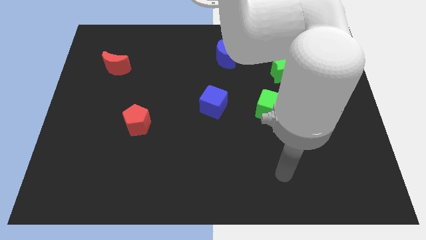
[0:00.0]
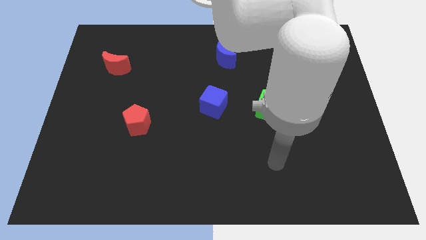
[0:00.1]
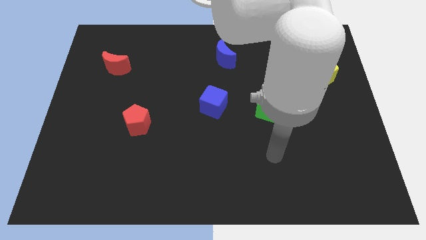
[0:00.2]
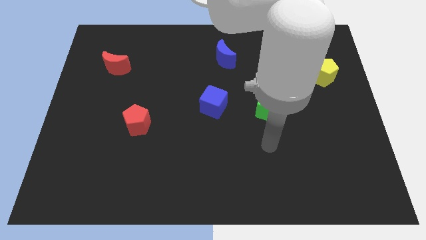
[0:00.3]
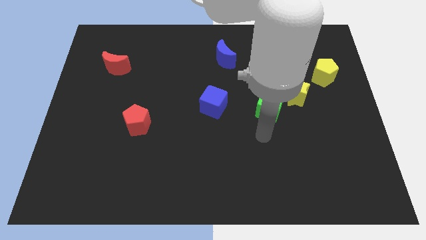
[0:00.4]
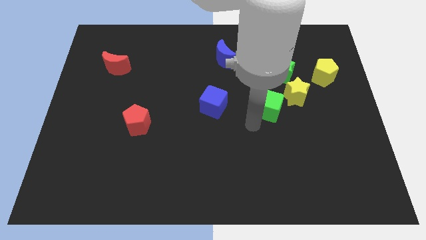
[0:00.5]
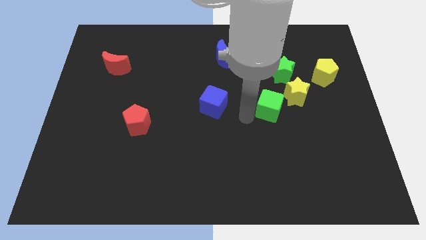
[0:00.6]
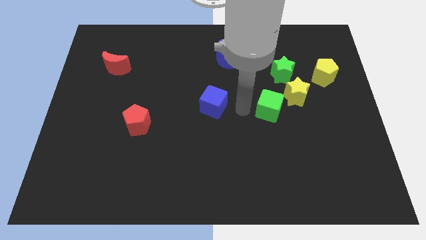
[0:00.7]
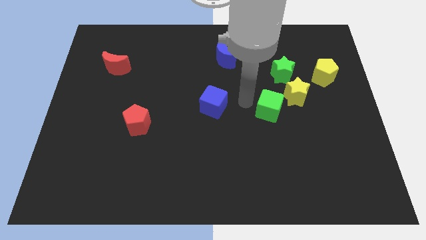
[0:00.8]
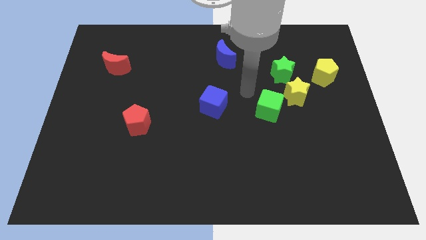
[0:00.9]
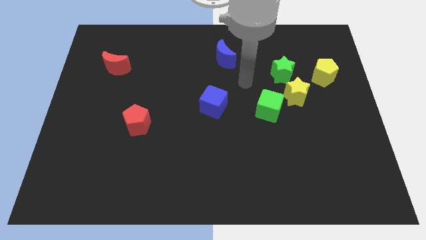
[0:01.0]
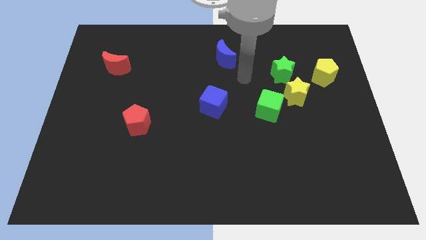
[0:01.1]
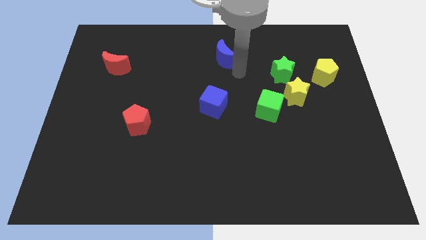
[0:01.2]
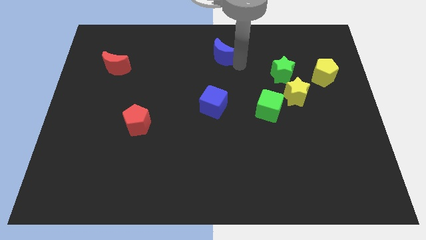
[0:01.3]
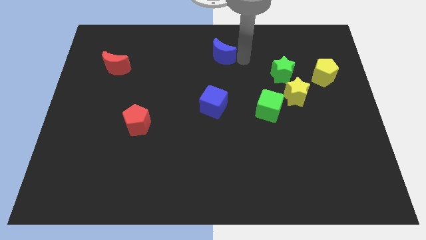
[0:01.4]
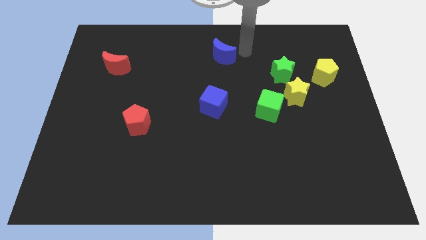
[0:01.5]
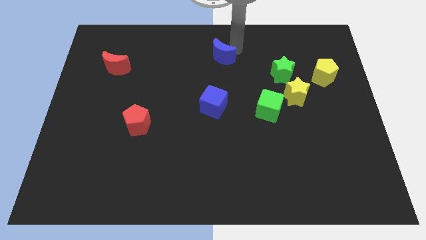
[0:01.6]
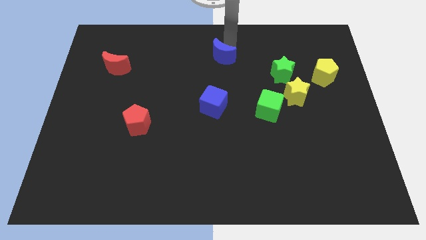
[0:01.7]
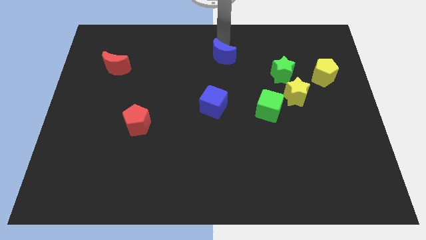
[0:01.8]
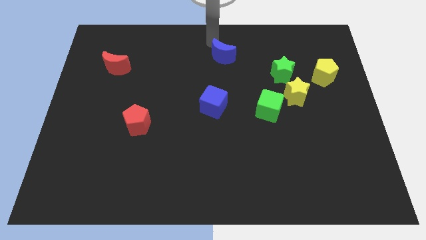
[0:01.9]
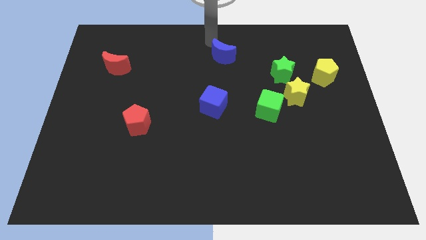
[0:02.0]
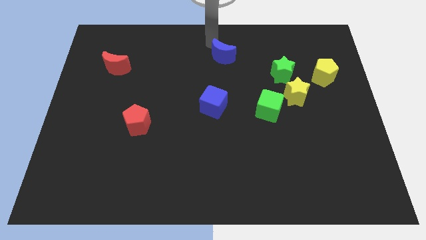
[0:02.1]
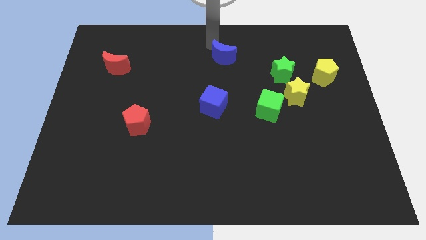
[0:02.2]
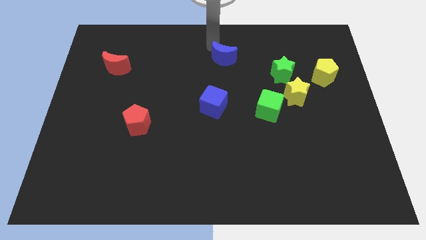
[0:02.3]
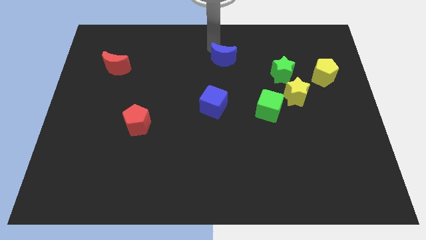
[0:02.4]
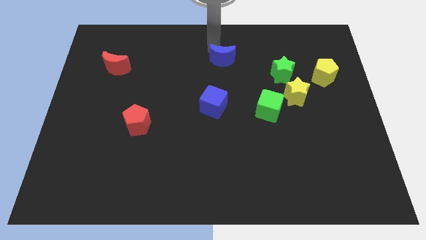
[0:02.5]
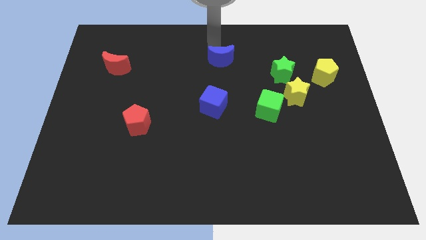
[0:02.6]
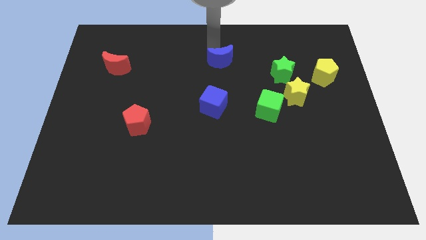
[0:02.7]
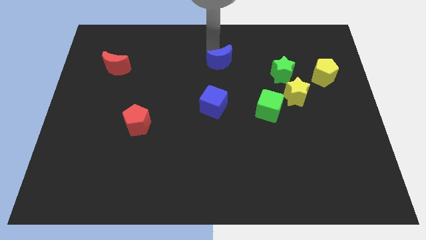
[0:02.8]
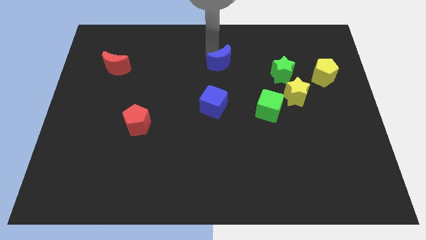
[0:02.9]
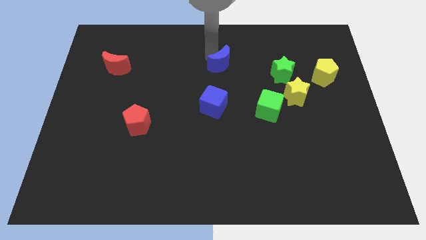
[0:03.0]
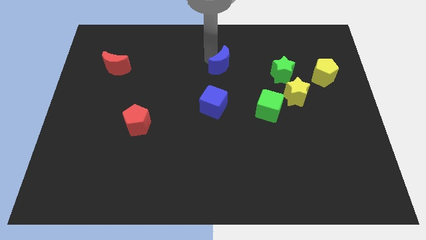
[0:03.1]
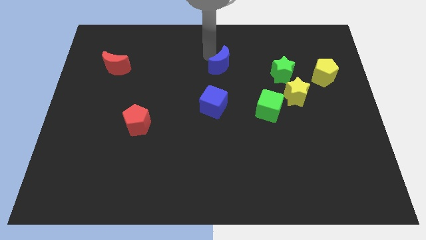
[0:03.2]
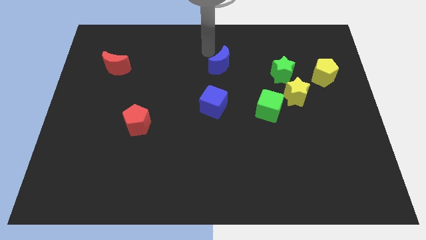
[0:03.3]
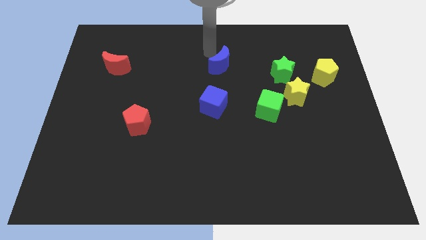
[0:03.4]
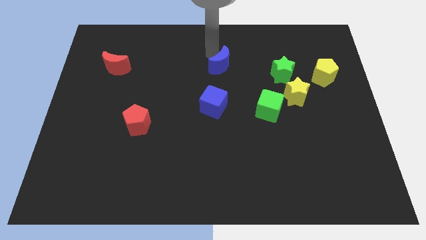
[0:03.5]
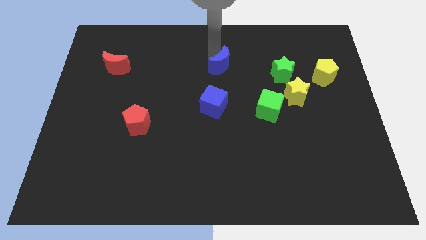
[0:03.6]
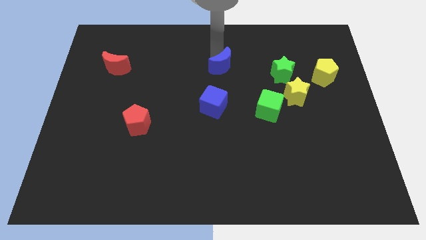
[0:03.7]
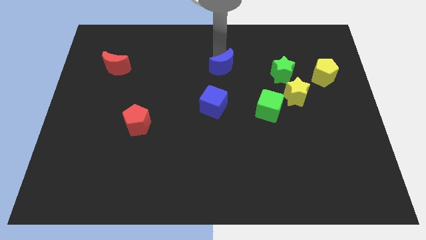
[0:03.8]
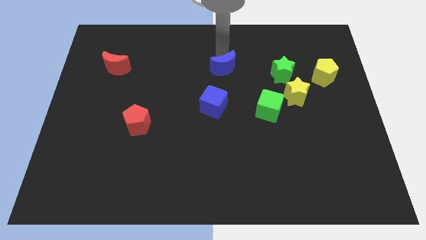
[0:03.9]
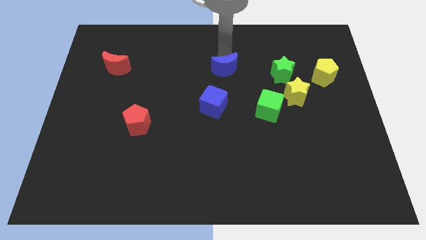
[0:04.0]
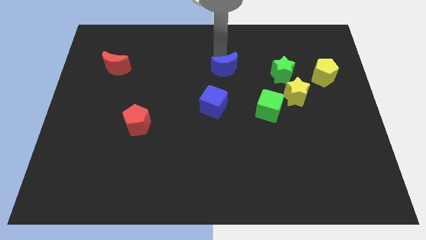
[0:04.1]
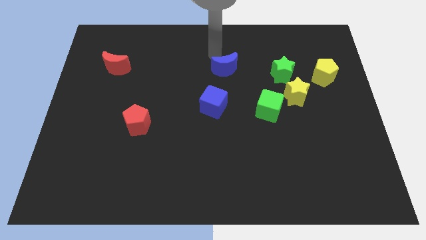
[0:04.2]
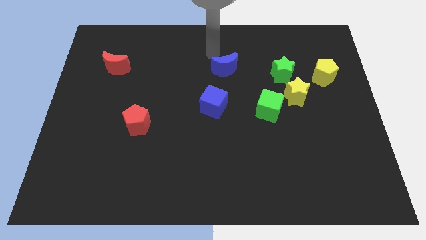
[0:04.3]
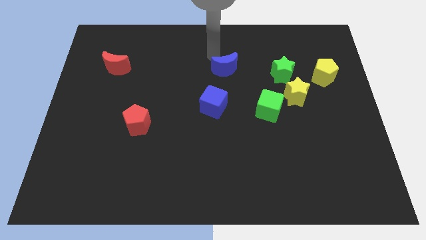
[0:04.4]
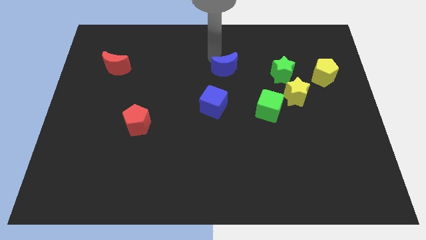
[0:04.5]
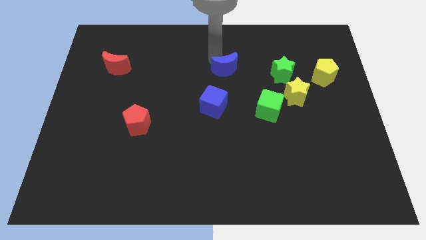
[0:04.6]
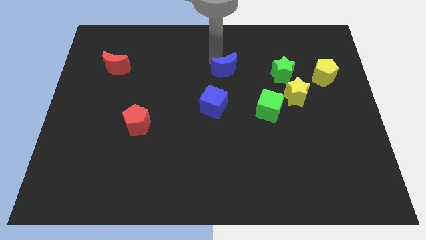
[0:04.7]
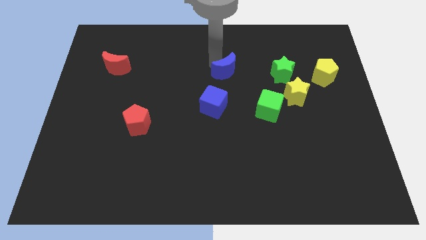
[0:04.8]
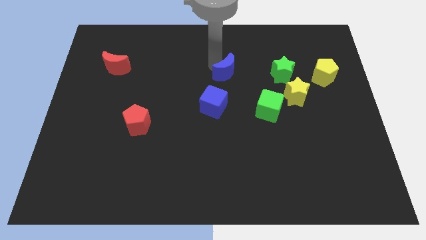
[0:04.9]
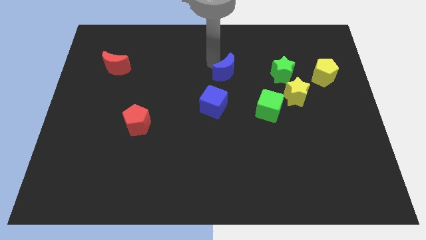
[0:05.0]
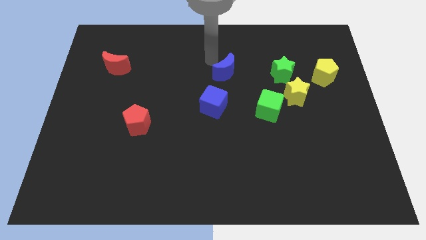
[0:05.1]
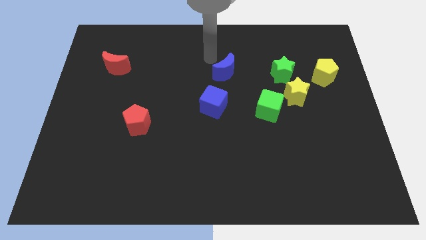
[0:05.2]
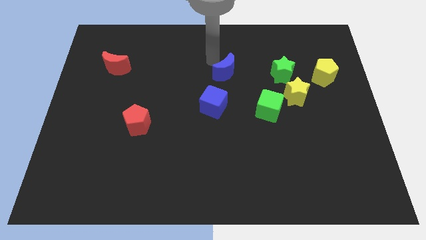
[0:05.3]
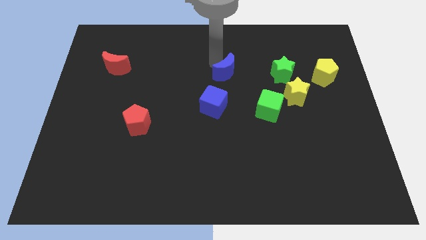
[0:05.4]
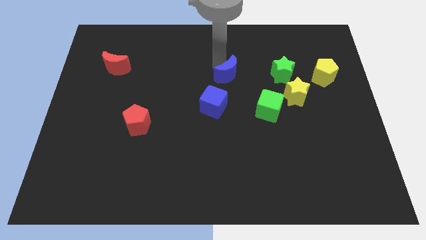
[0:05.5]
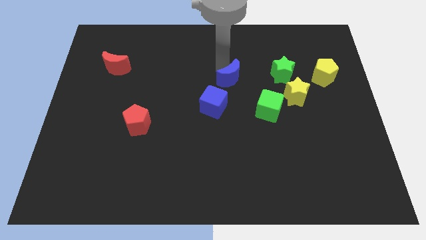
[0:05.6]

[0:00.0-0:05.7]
slide the blue moon downwards somewhat

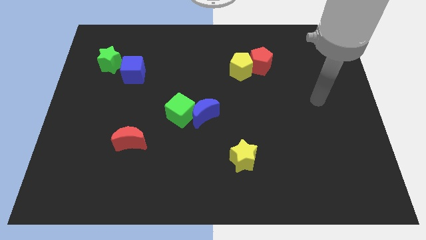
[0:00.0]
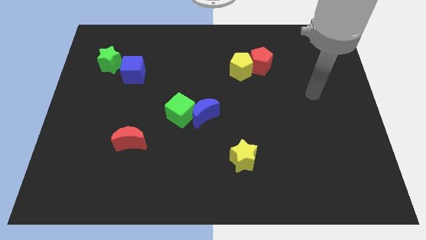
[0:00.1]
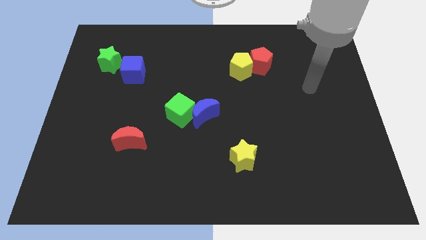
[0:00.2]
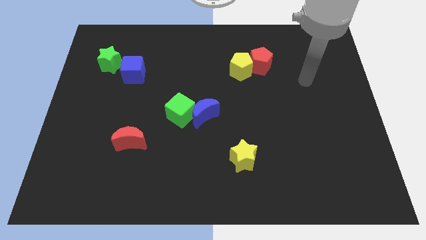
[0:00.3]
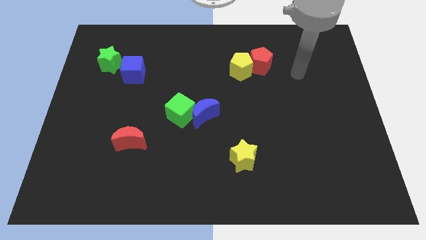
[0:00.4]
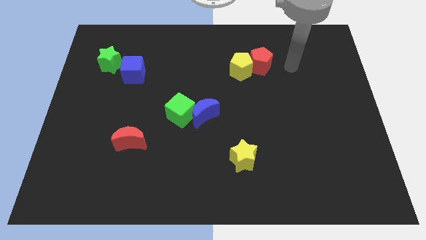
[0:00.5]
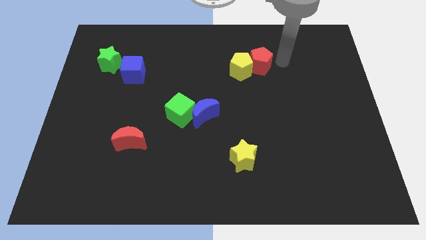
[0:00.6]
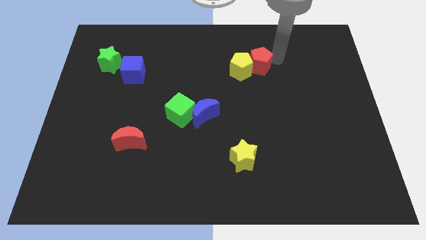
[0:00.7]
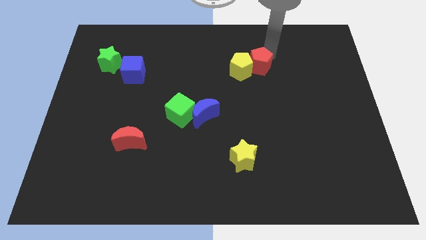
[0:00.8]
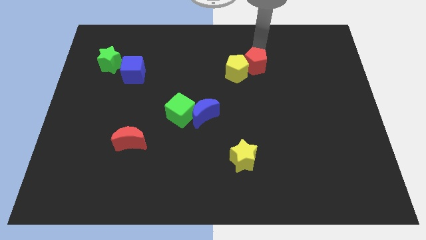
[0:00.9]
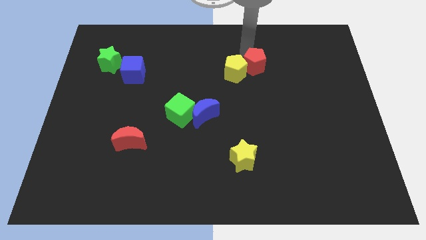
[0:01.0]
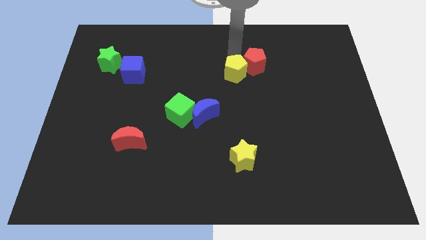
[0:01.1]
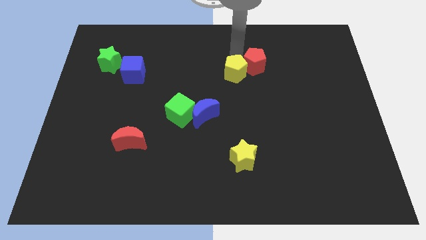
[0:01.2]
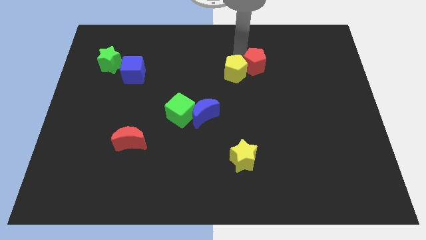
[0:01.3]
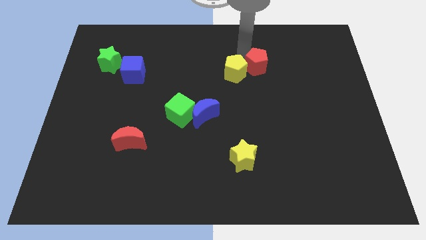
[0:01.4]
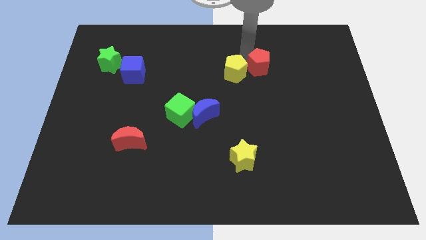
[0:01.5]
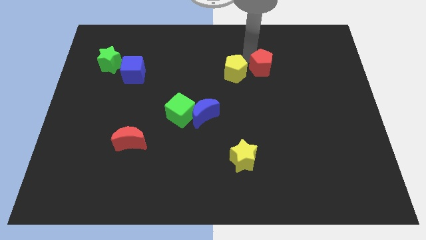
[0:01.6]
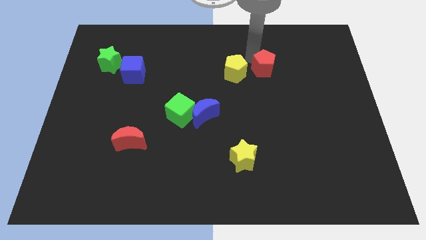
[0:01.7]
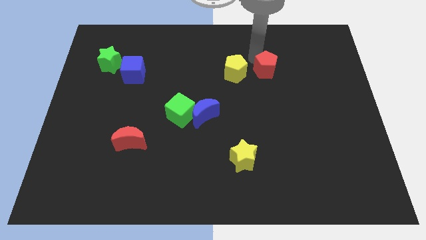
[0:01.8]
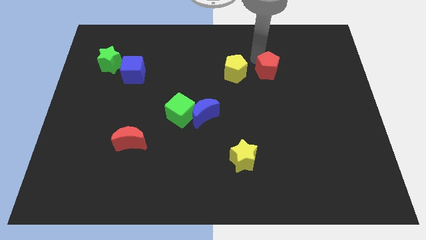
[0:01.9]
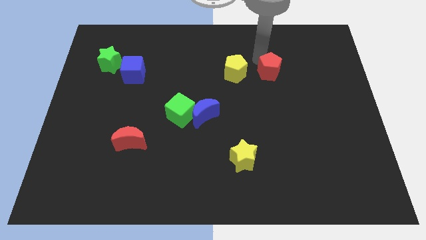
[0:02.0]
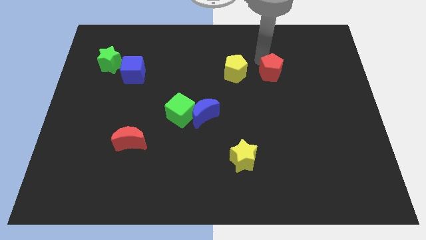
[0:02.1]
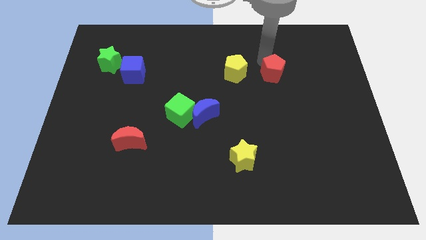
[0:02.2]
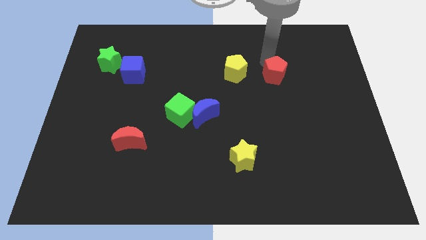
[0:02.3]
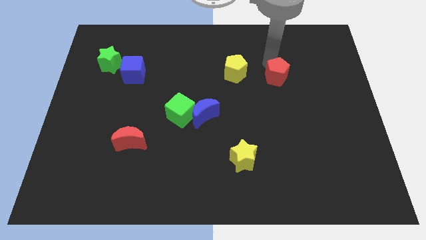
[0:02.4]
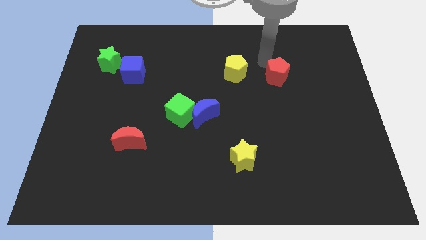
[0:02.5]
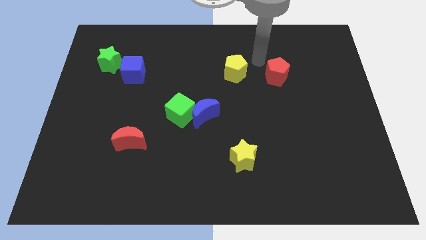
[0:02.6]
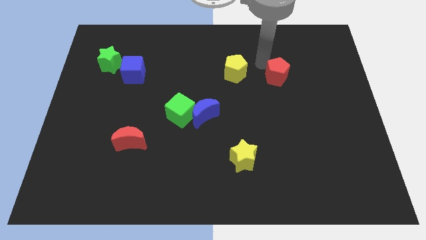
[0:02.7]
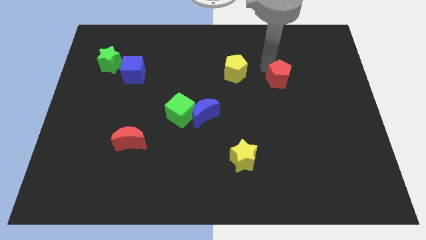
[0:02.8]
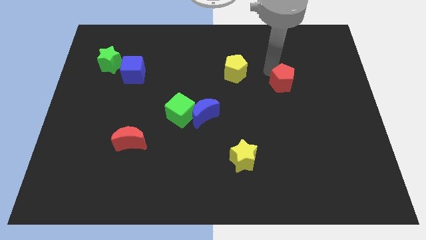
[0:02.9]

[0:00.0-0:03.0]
slightly move the red pentagon downwards and right
